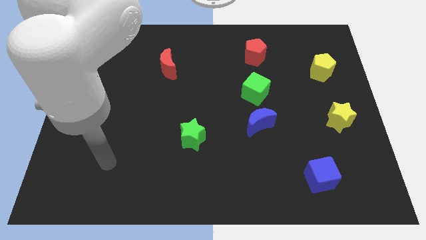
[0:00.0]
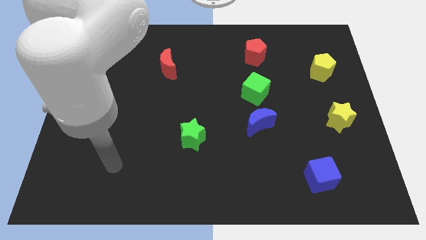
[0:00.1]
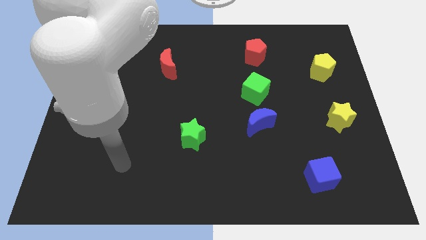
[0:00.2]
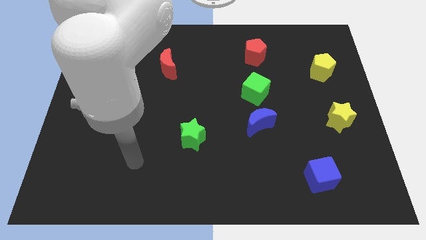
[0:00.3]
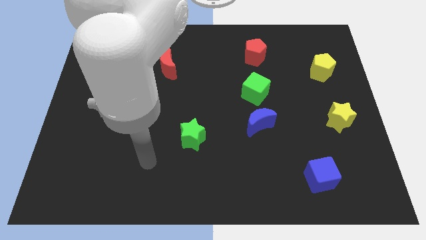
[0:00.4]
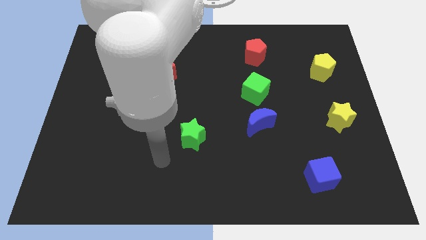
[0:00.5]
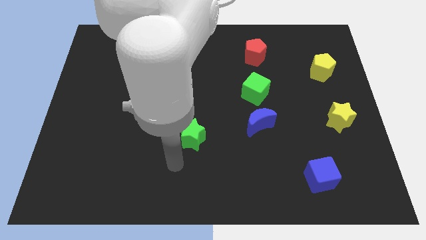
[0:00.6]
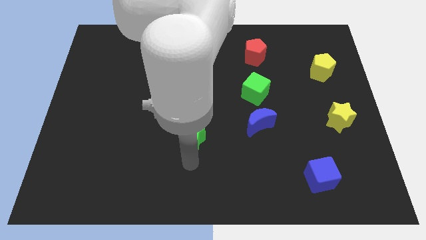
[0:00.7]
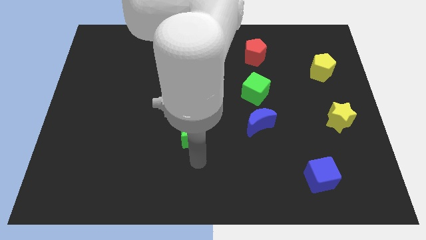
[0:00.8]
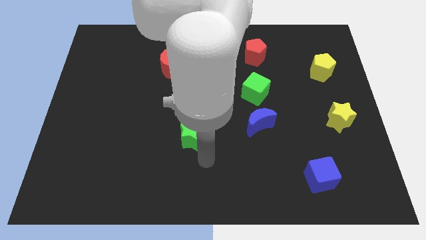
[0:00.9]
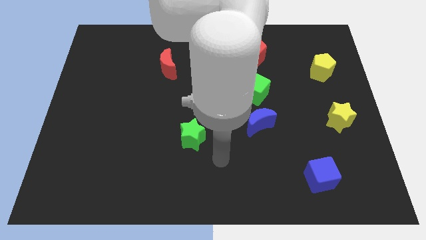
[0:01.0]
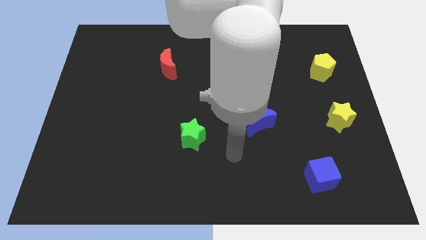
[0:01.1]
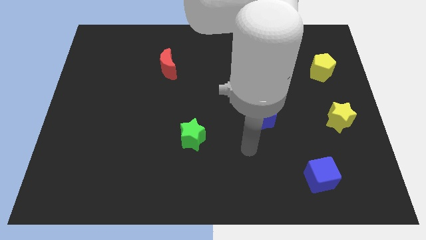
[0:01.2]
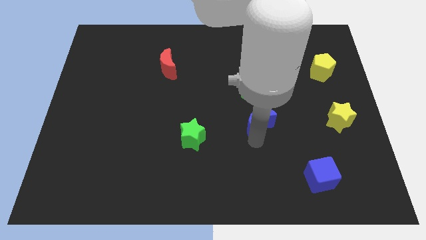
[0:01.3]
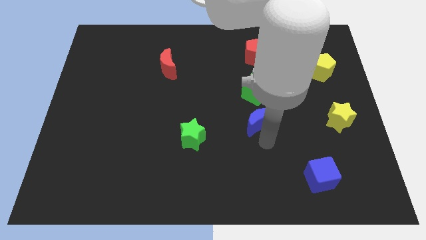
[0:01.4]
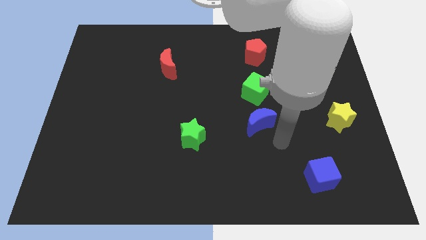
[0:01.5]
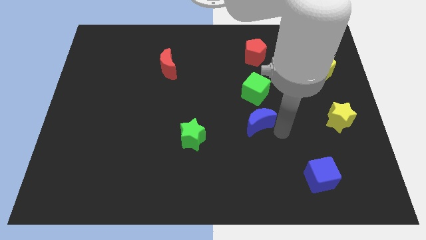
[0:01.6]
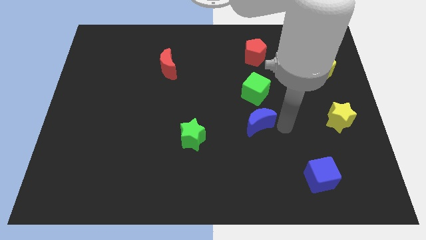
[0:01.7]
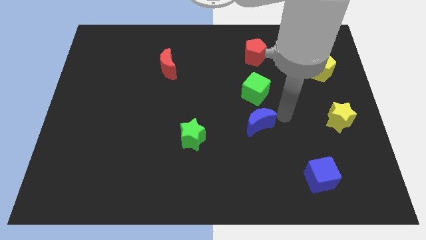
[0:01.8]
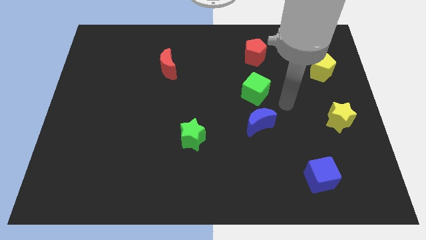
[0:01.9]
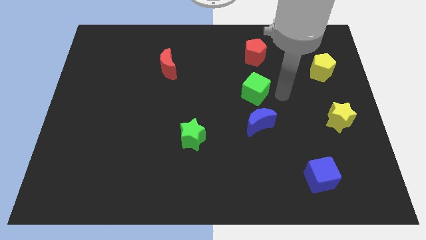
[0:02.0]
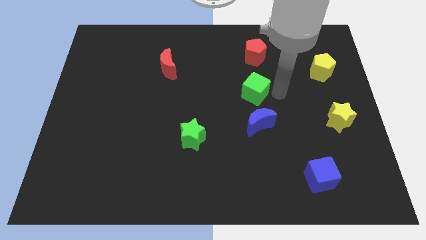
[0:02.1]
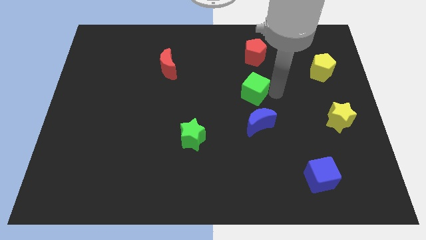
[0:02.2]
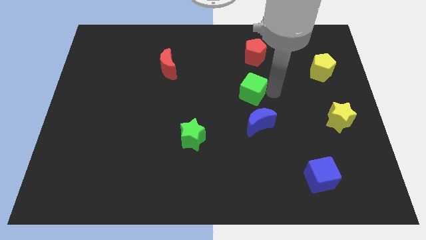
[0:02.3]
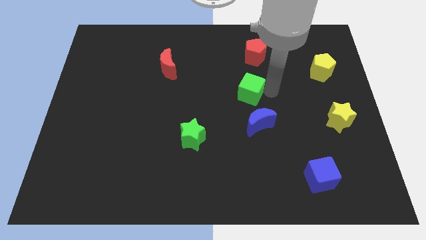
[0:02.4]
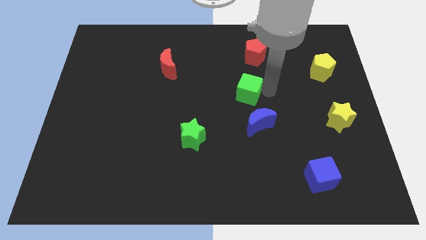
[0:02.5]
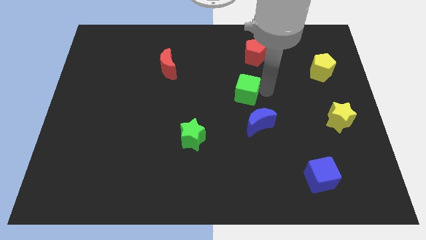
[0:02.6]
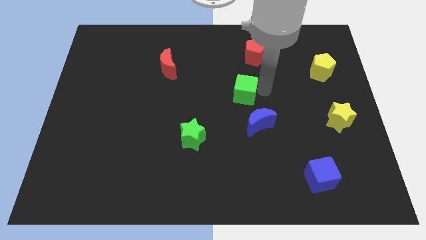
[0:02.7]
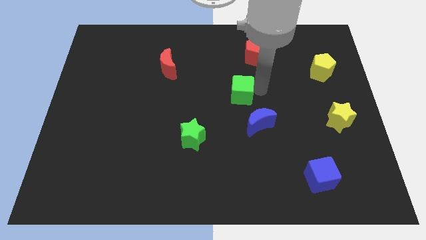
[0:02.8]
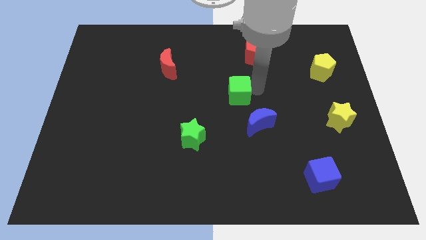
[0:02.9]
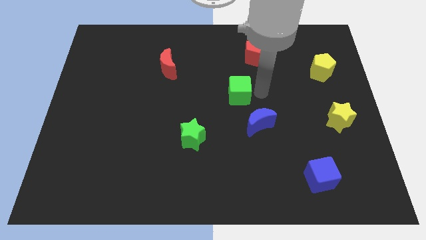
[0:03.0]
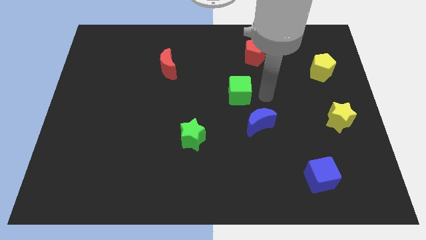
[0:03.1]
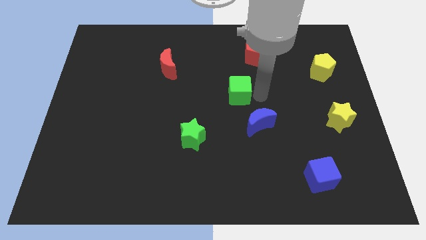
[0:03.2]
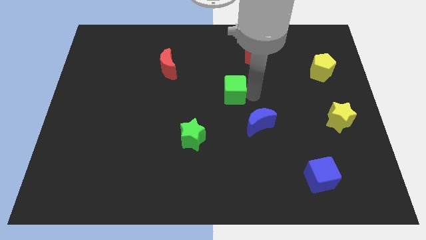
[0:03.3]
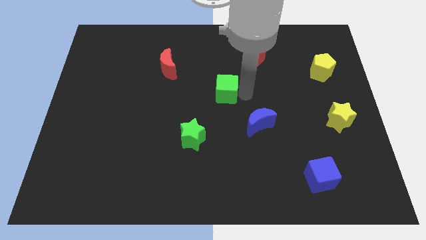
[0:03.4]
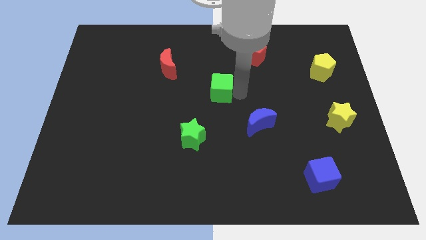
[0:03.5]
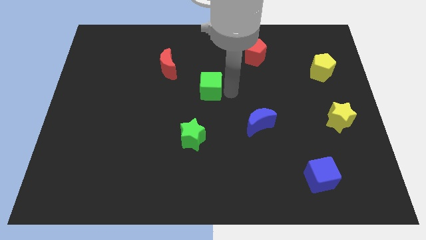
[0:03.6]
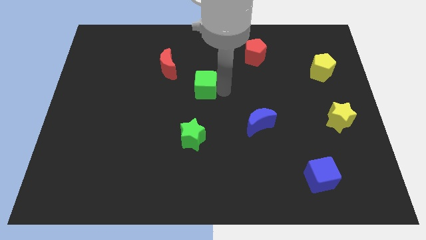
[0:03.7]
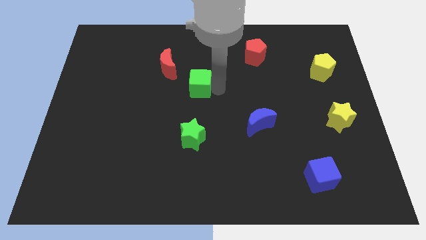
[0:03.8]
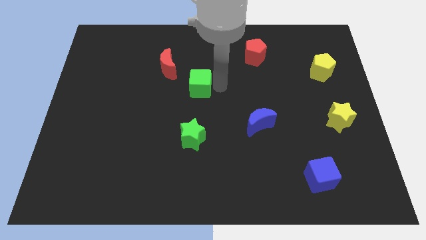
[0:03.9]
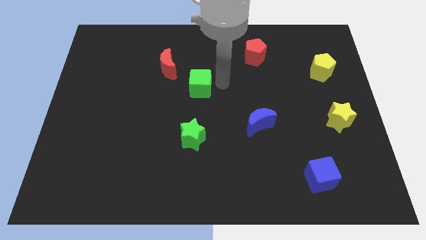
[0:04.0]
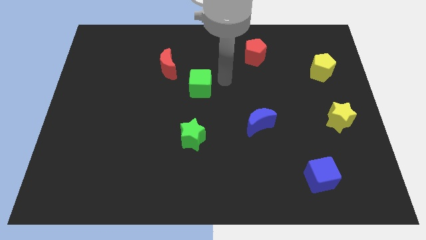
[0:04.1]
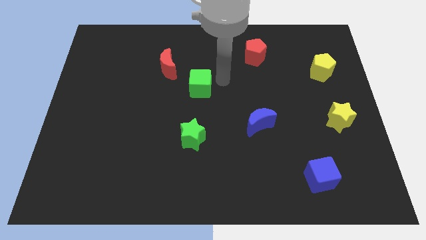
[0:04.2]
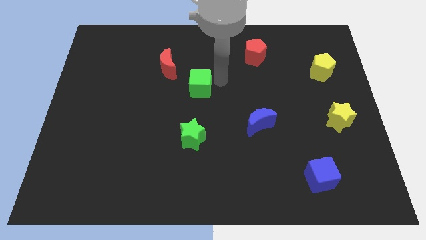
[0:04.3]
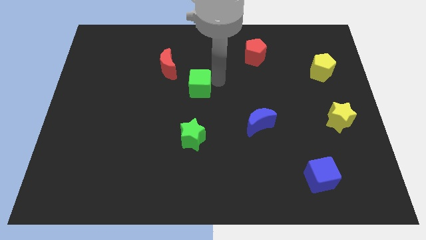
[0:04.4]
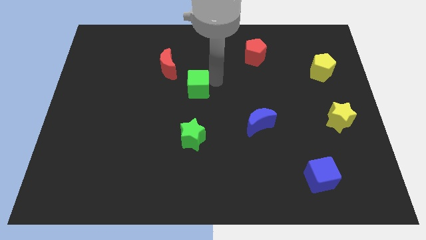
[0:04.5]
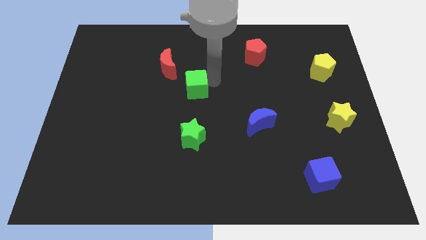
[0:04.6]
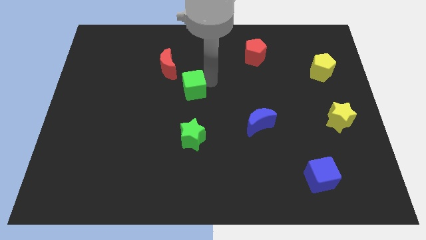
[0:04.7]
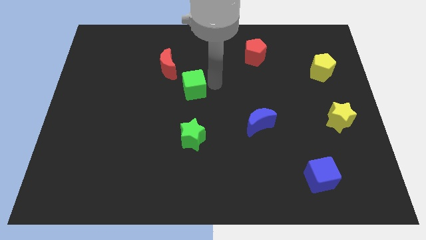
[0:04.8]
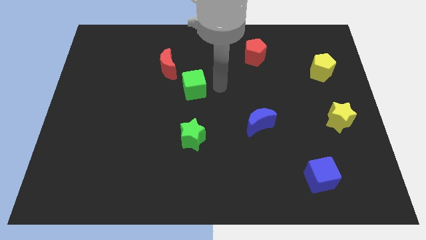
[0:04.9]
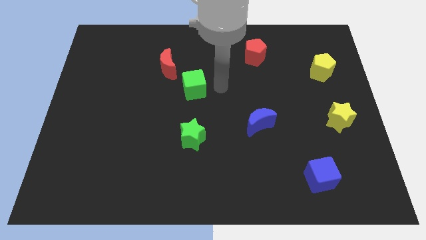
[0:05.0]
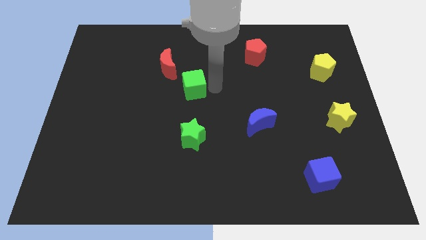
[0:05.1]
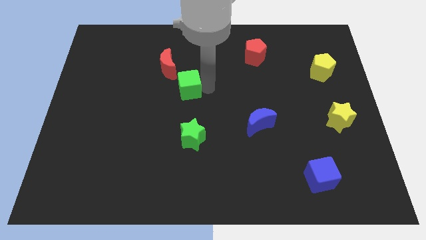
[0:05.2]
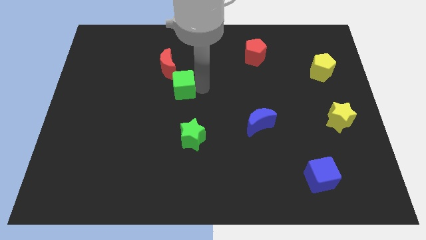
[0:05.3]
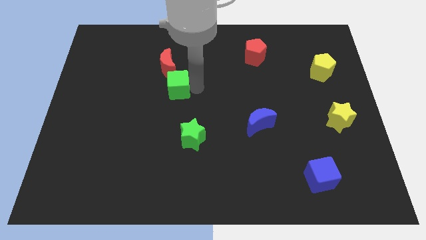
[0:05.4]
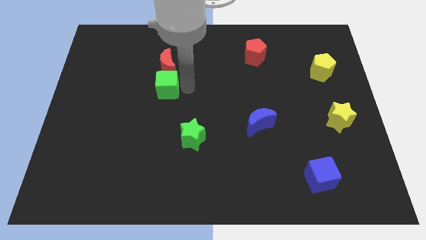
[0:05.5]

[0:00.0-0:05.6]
slide the green cube to the left

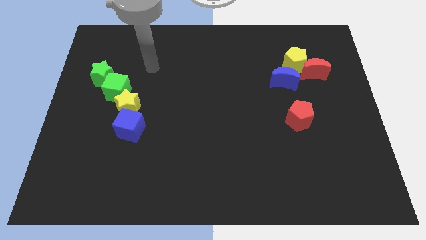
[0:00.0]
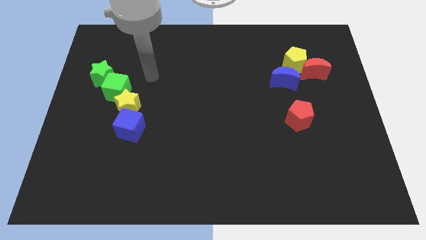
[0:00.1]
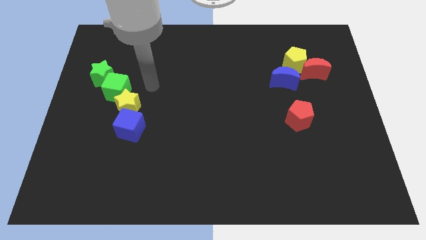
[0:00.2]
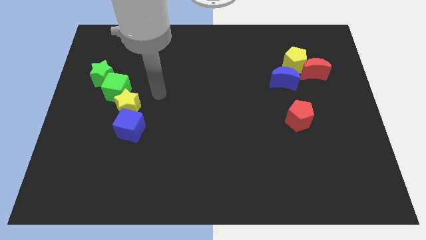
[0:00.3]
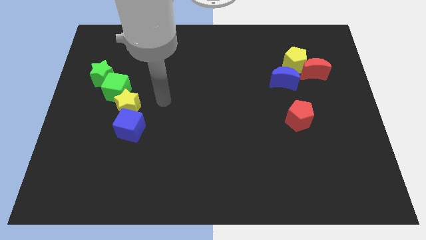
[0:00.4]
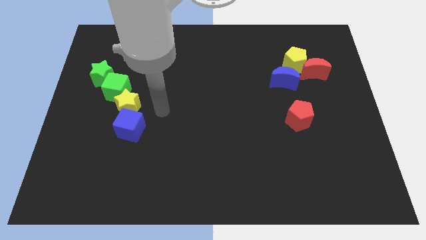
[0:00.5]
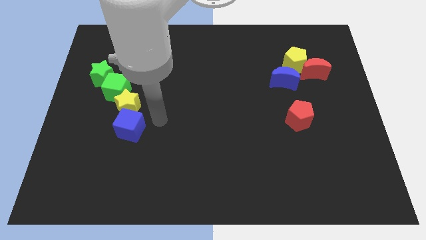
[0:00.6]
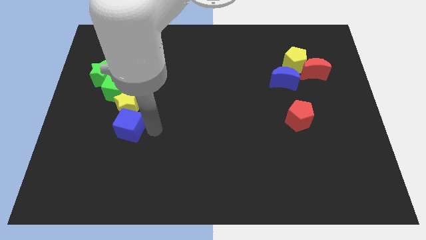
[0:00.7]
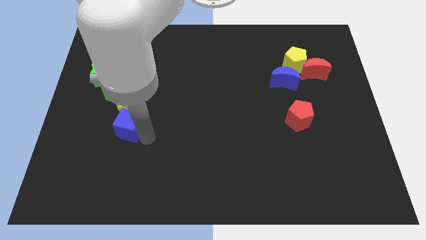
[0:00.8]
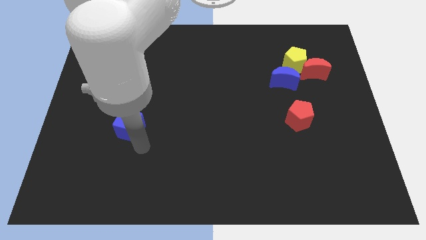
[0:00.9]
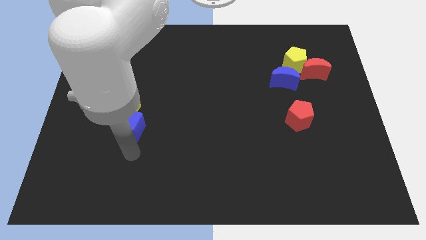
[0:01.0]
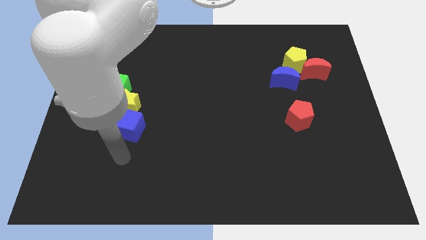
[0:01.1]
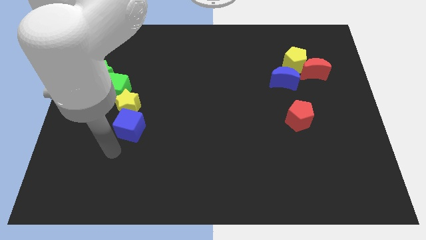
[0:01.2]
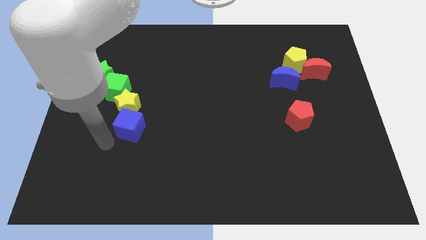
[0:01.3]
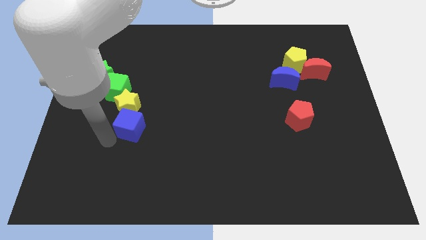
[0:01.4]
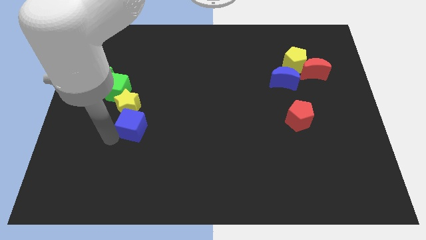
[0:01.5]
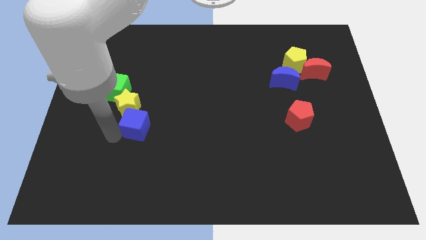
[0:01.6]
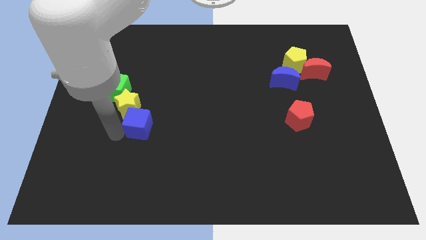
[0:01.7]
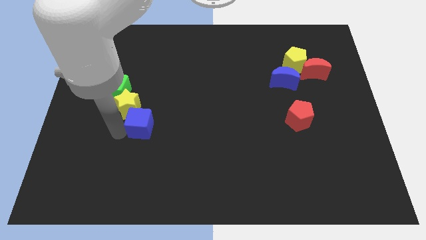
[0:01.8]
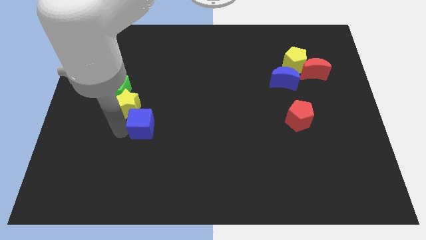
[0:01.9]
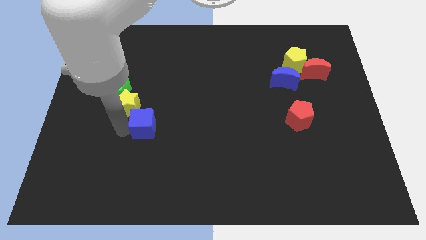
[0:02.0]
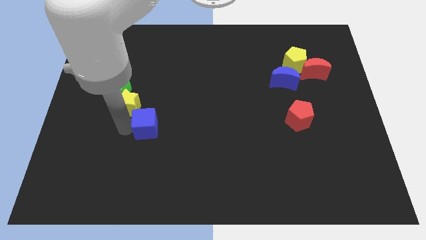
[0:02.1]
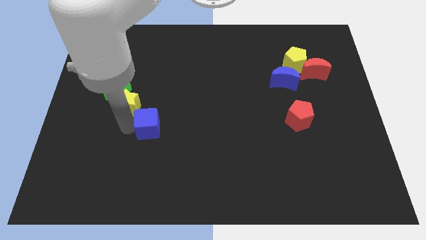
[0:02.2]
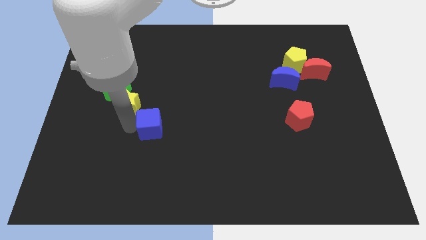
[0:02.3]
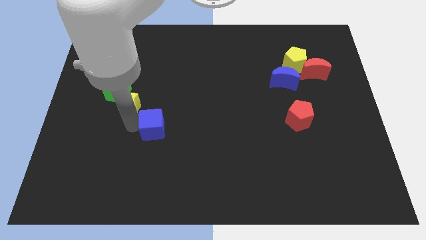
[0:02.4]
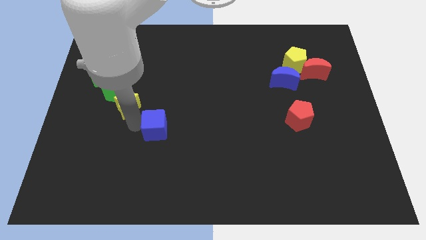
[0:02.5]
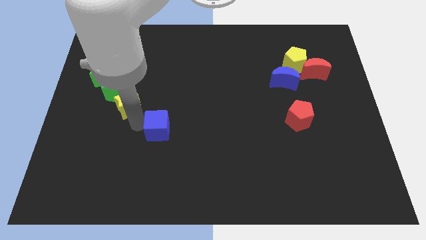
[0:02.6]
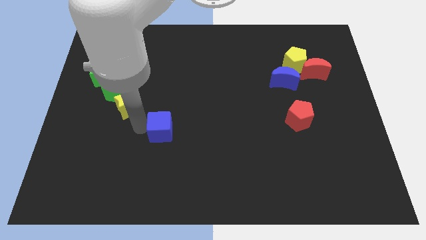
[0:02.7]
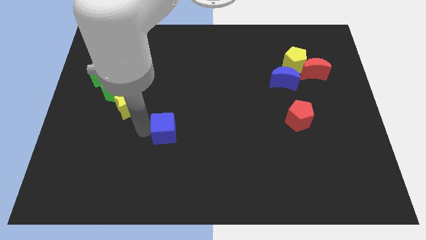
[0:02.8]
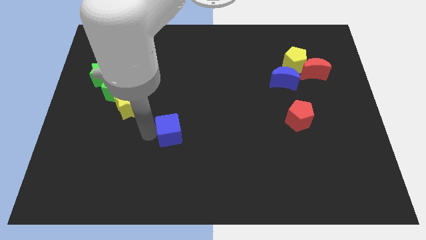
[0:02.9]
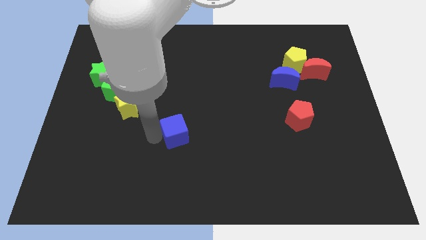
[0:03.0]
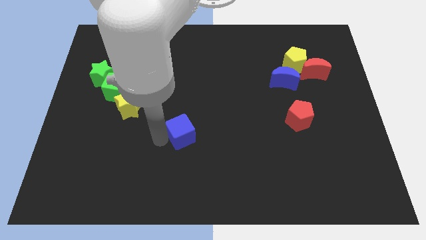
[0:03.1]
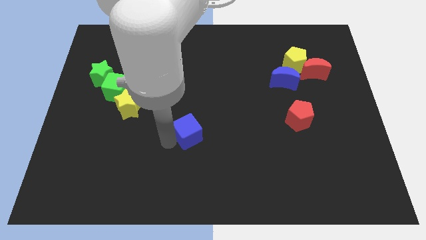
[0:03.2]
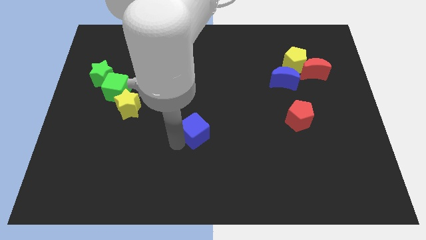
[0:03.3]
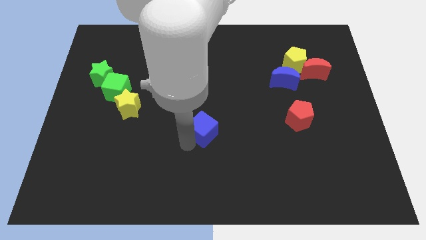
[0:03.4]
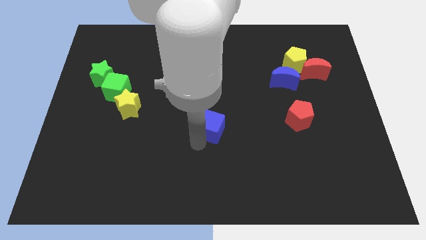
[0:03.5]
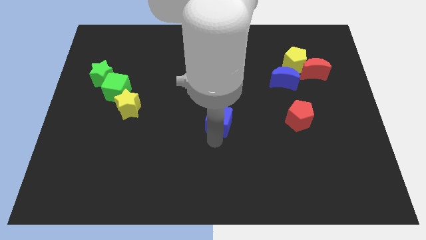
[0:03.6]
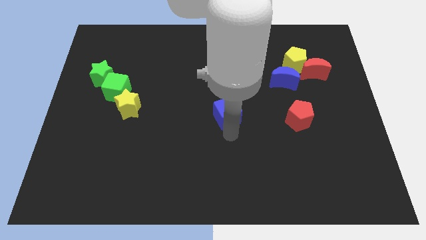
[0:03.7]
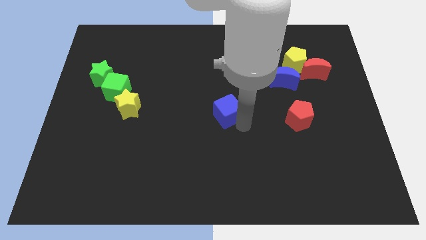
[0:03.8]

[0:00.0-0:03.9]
slide the blue cube somewhat diagonally upwards and right
